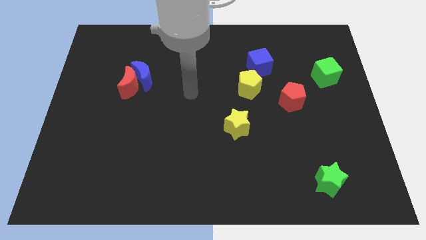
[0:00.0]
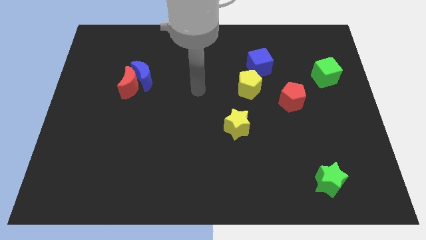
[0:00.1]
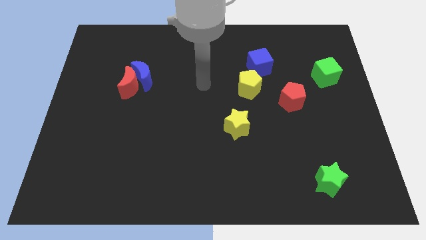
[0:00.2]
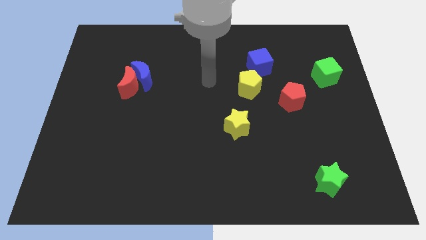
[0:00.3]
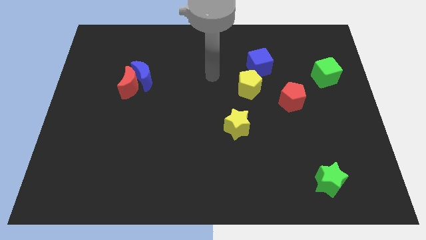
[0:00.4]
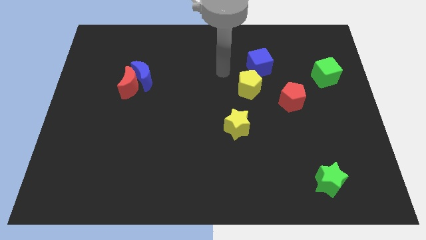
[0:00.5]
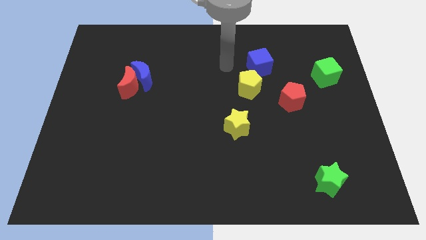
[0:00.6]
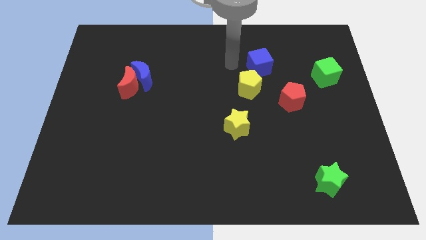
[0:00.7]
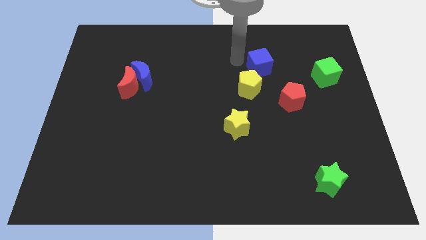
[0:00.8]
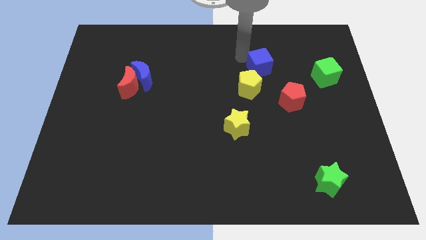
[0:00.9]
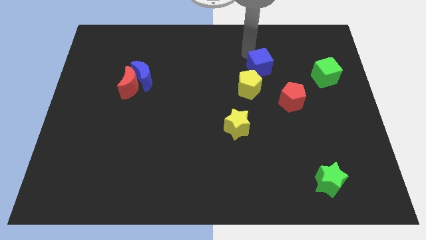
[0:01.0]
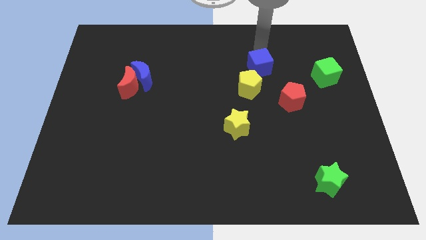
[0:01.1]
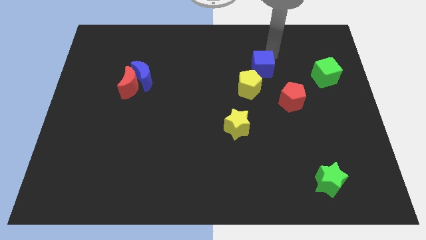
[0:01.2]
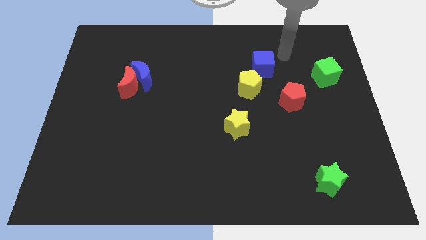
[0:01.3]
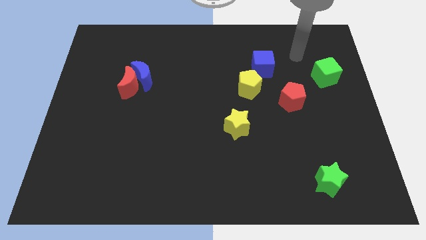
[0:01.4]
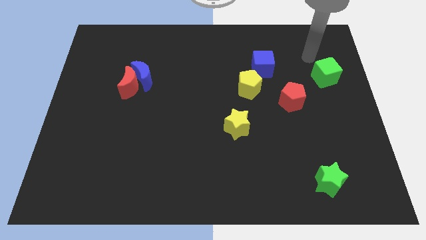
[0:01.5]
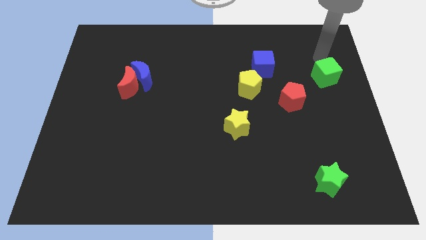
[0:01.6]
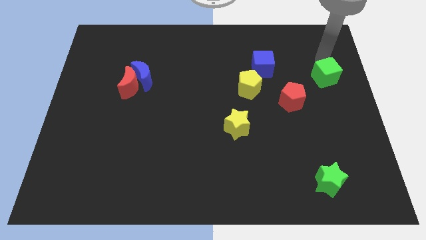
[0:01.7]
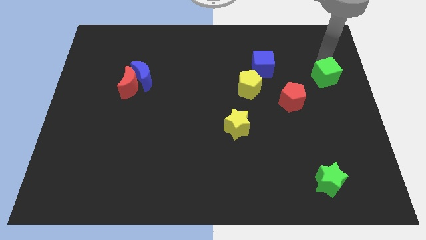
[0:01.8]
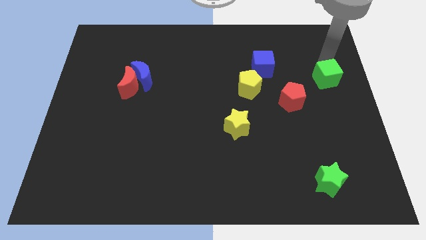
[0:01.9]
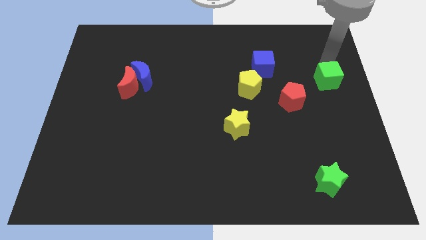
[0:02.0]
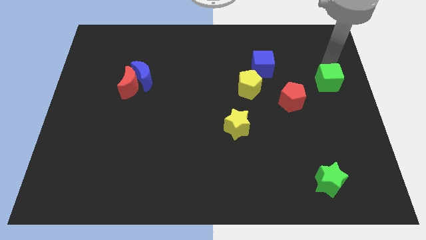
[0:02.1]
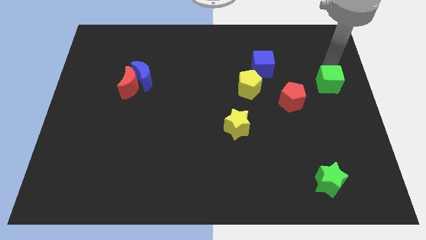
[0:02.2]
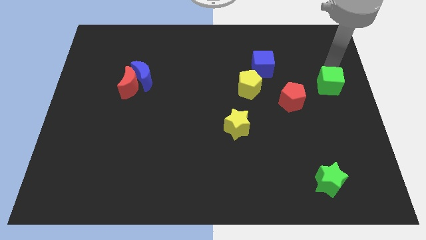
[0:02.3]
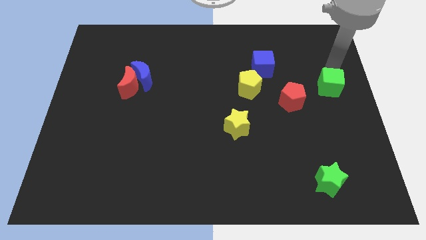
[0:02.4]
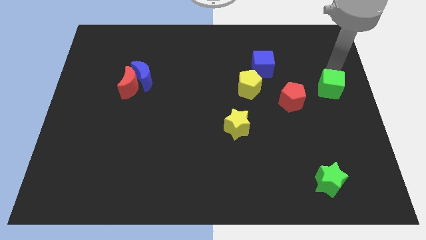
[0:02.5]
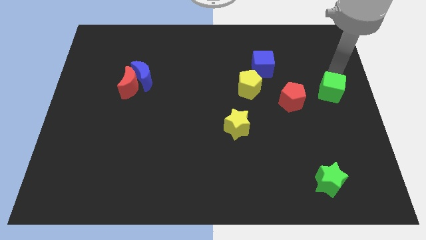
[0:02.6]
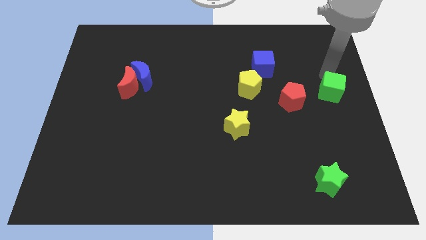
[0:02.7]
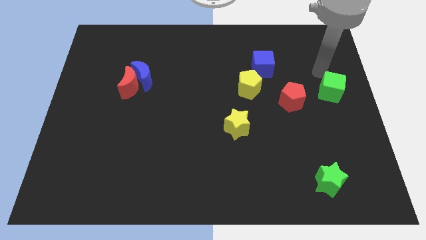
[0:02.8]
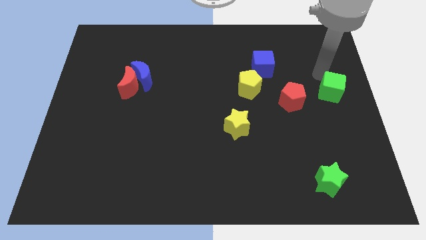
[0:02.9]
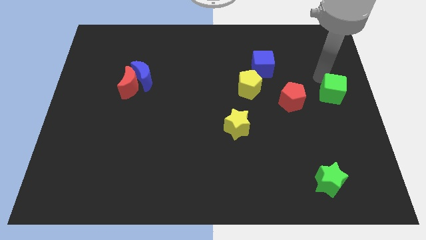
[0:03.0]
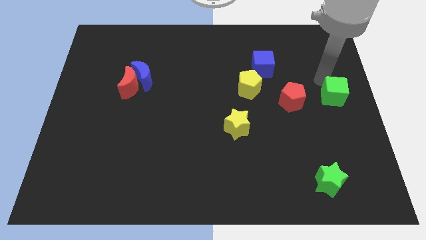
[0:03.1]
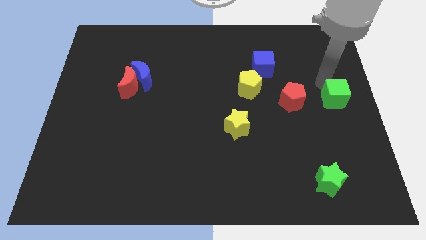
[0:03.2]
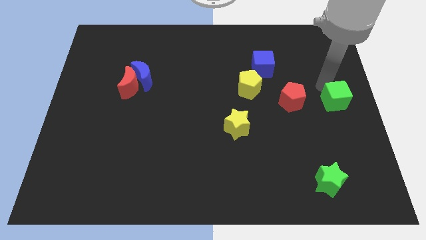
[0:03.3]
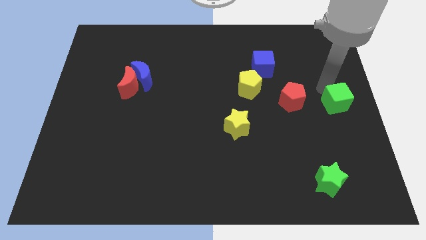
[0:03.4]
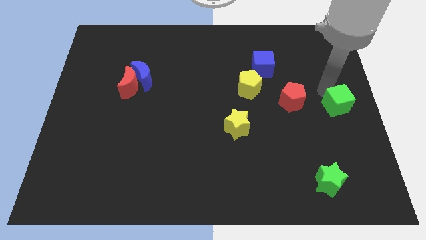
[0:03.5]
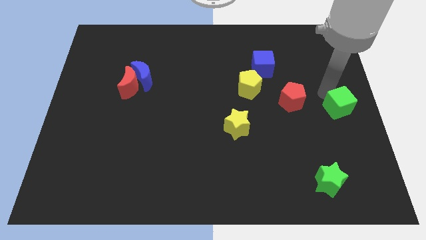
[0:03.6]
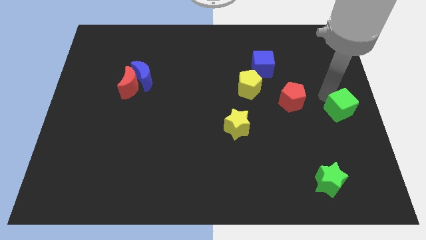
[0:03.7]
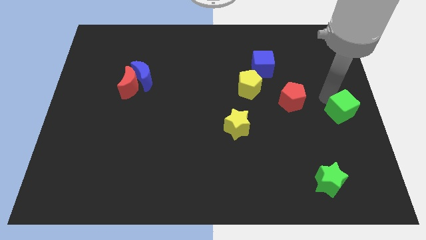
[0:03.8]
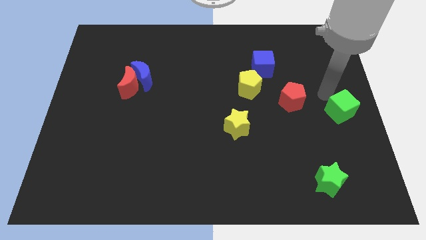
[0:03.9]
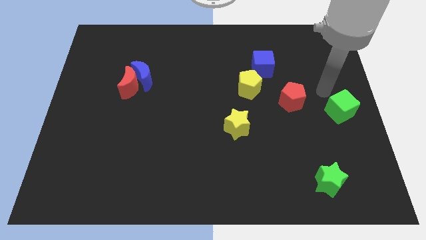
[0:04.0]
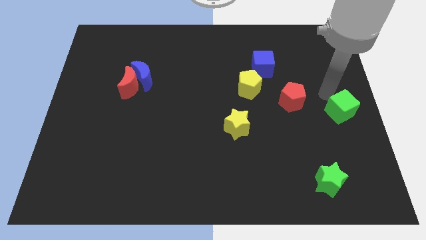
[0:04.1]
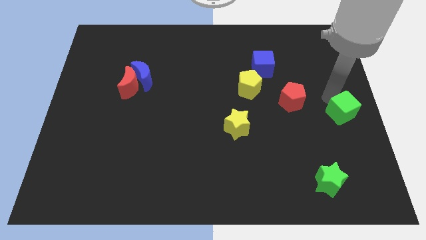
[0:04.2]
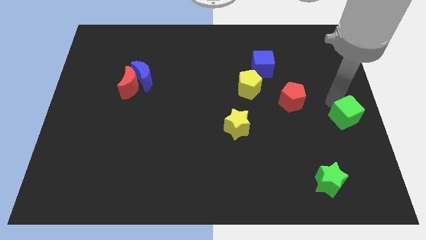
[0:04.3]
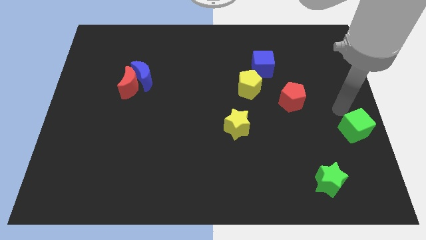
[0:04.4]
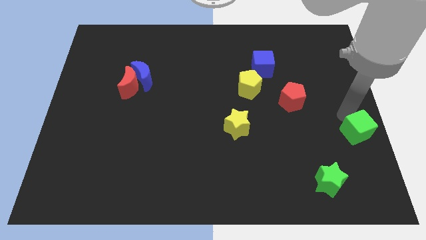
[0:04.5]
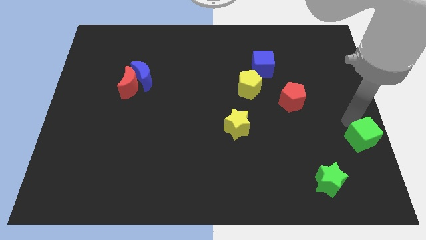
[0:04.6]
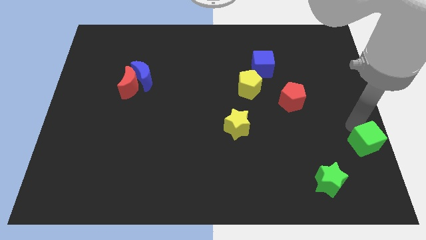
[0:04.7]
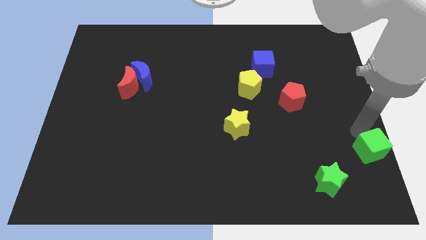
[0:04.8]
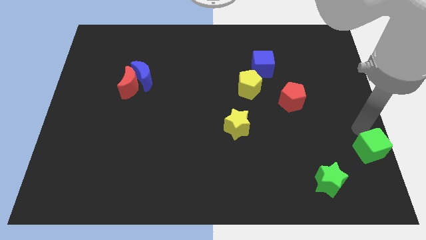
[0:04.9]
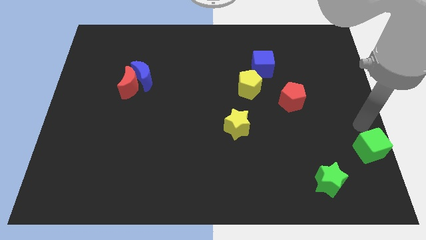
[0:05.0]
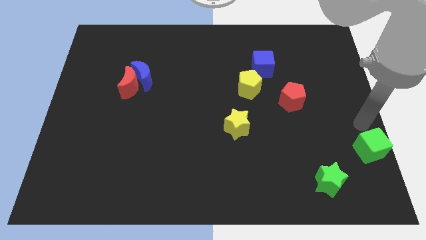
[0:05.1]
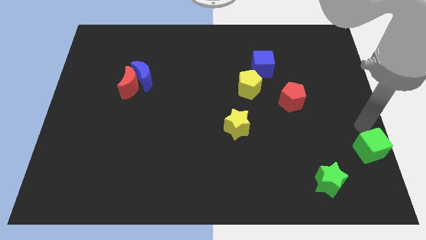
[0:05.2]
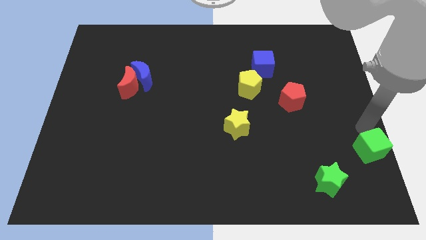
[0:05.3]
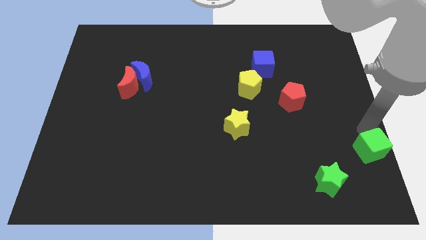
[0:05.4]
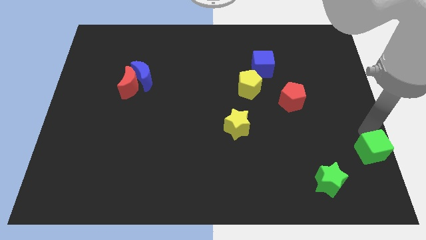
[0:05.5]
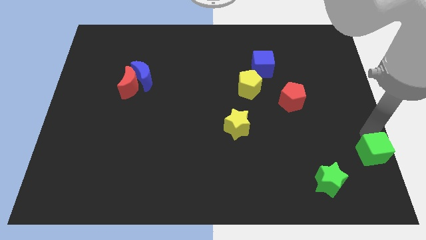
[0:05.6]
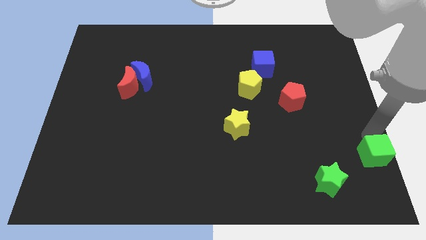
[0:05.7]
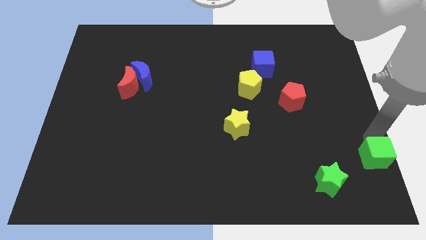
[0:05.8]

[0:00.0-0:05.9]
slide the green cube to the bottom right

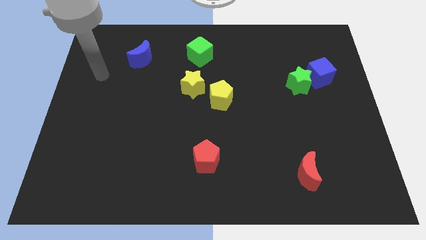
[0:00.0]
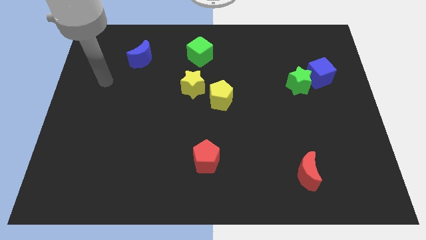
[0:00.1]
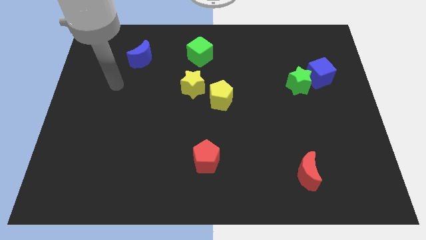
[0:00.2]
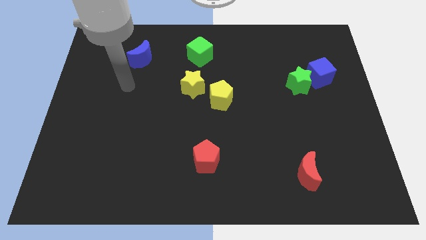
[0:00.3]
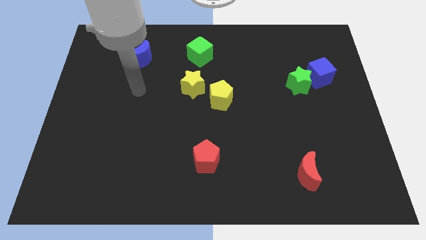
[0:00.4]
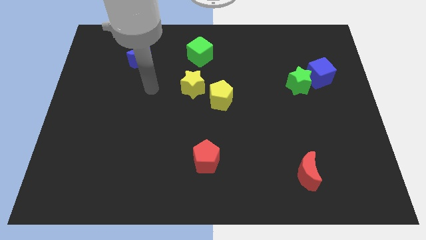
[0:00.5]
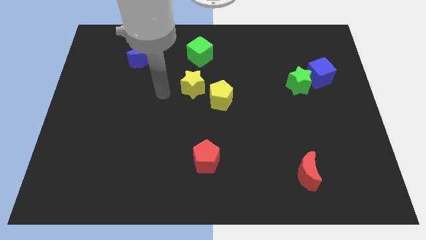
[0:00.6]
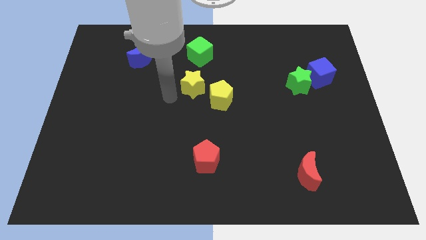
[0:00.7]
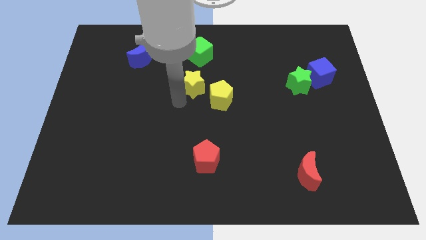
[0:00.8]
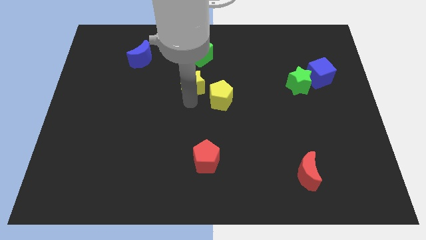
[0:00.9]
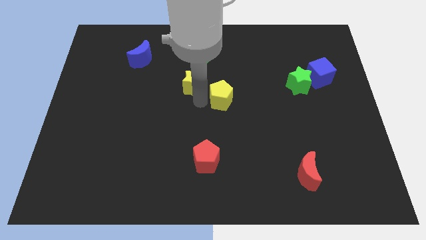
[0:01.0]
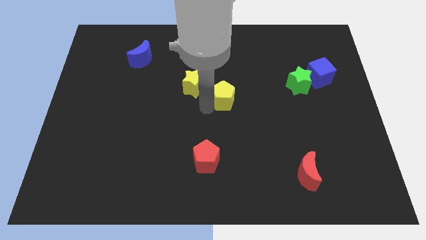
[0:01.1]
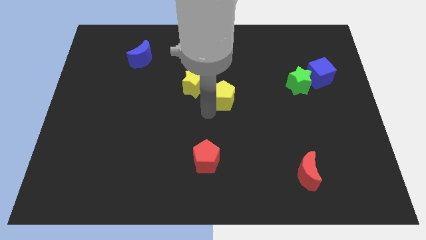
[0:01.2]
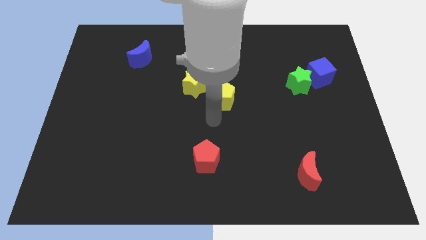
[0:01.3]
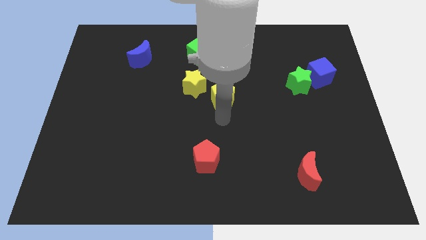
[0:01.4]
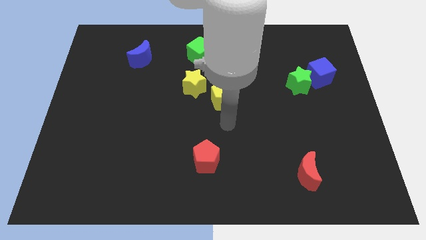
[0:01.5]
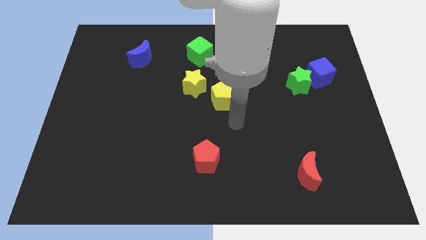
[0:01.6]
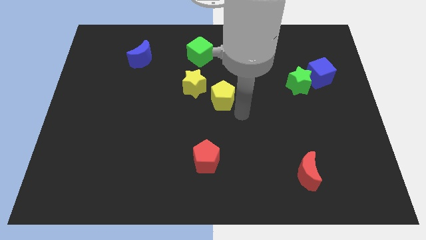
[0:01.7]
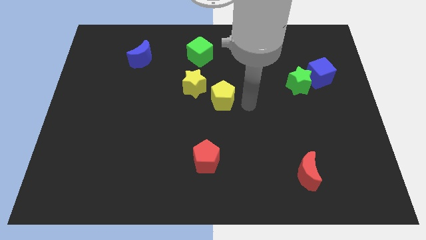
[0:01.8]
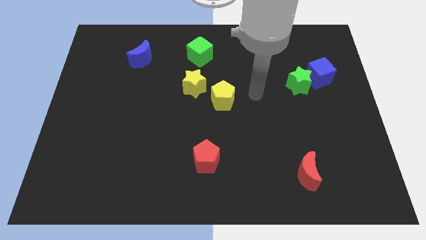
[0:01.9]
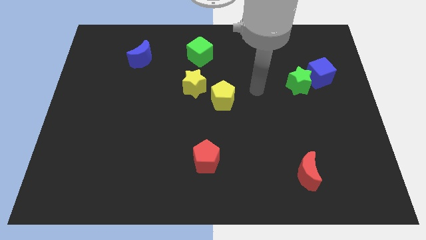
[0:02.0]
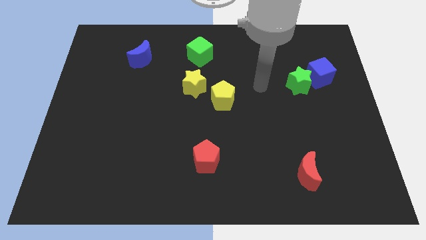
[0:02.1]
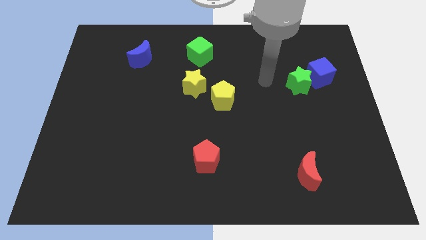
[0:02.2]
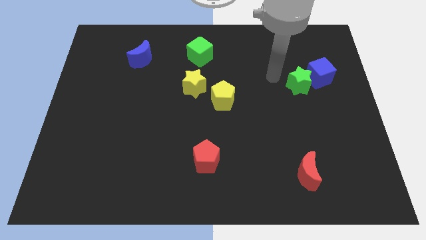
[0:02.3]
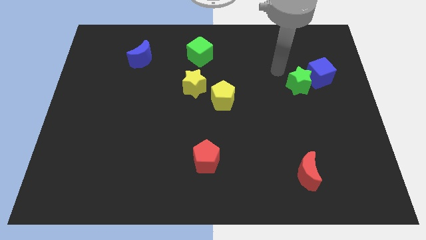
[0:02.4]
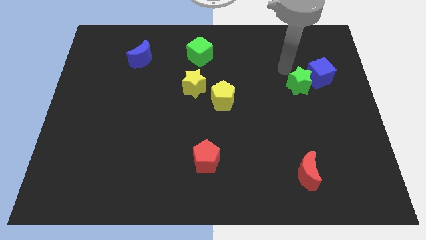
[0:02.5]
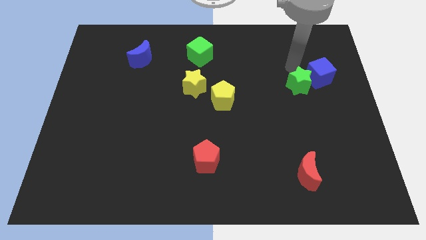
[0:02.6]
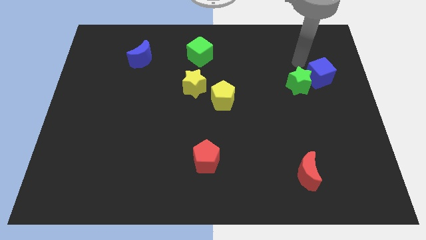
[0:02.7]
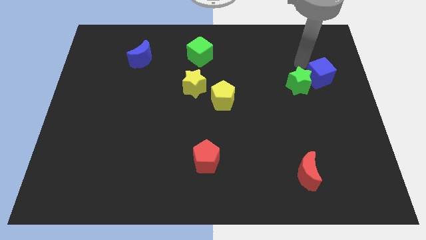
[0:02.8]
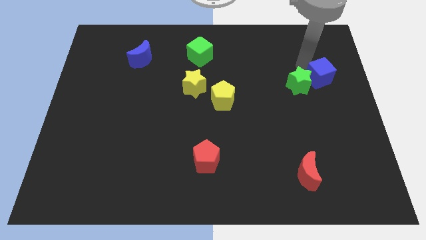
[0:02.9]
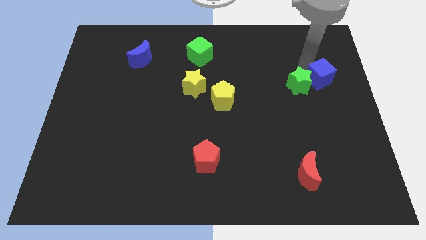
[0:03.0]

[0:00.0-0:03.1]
slide the blue cube to the right side of the board
